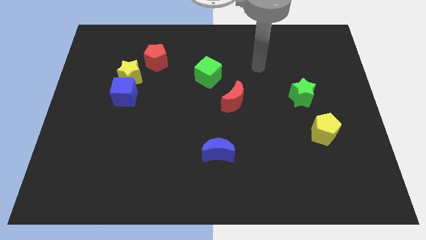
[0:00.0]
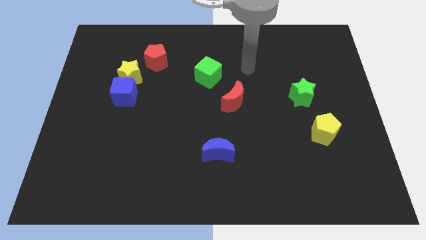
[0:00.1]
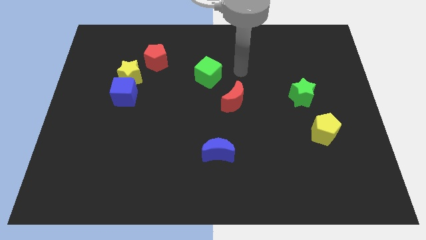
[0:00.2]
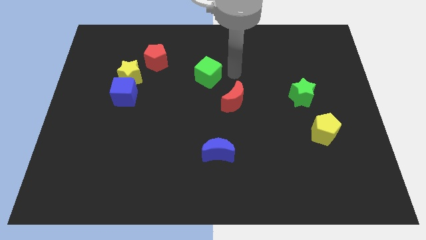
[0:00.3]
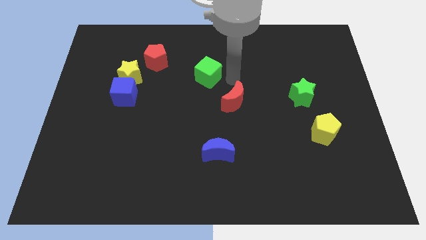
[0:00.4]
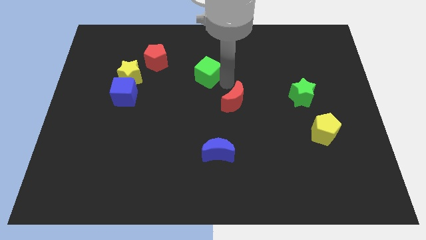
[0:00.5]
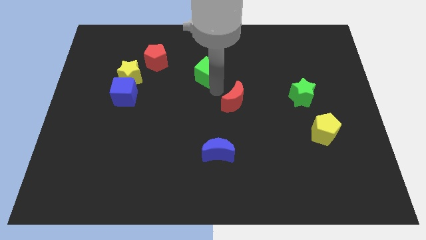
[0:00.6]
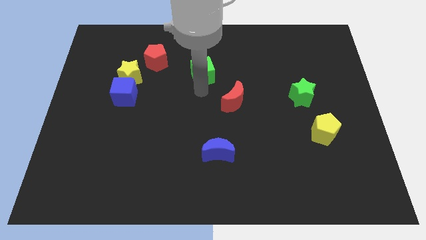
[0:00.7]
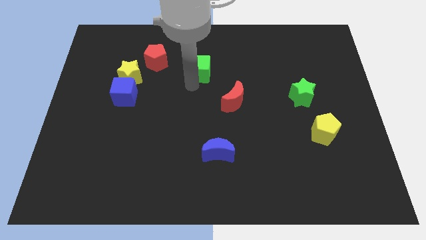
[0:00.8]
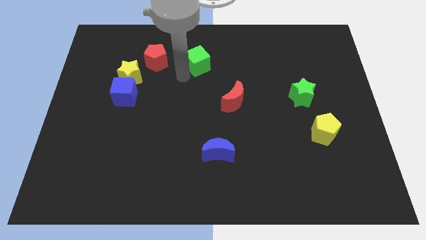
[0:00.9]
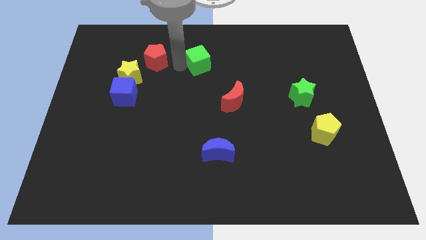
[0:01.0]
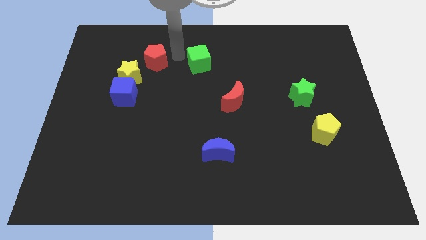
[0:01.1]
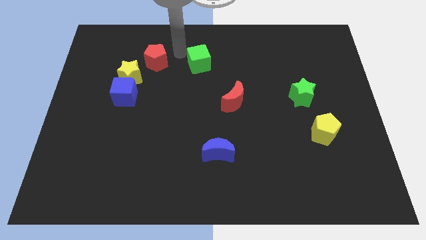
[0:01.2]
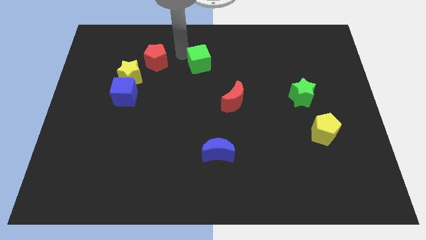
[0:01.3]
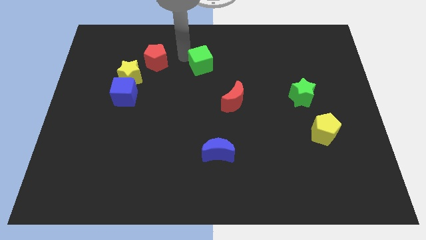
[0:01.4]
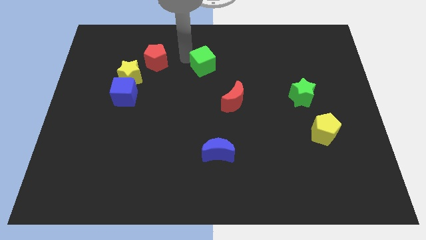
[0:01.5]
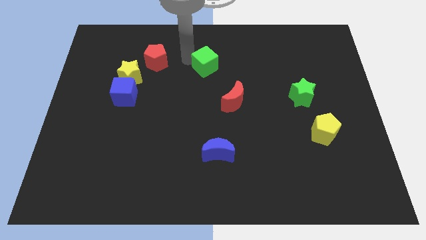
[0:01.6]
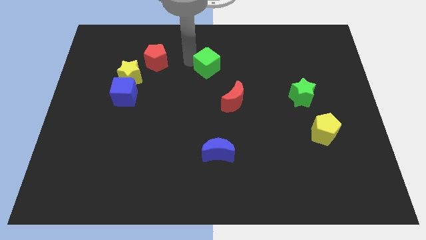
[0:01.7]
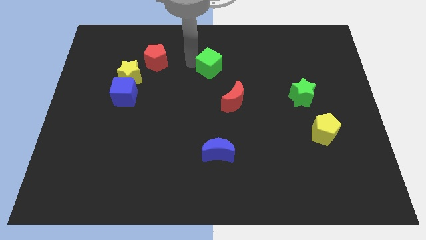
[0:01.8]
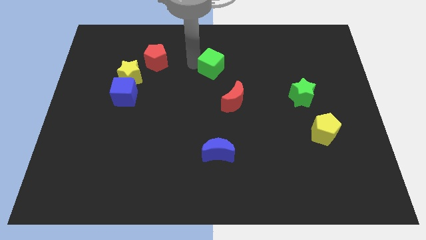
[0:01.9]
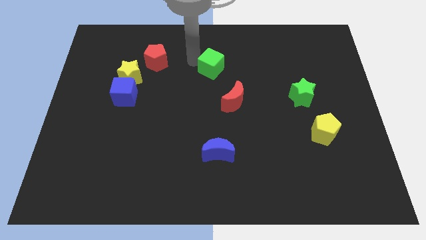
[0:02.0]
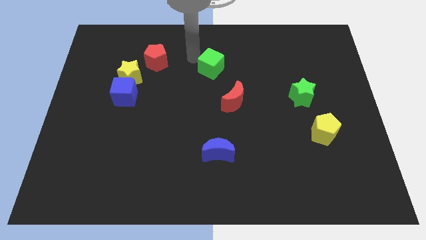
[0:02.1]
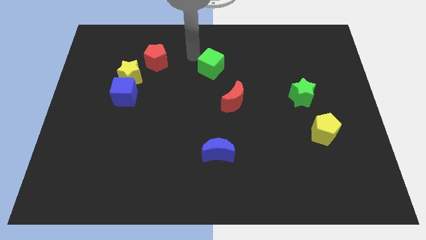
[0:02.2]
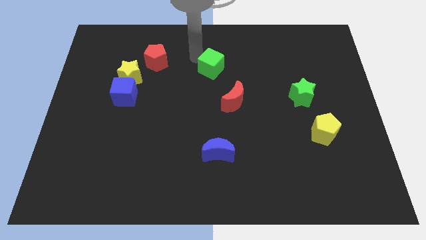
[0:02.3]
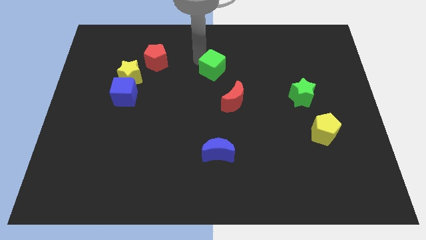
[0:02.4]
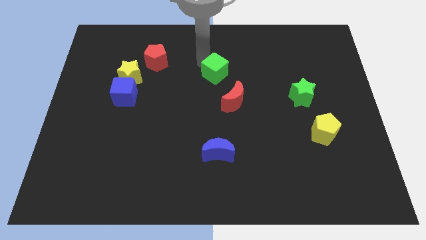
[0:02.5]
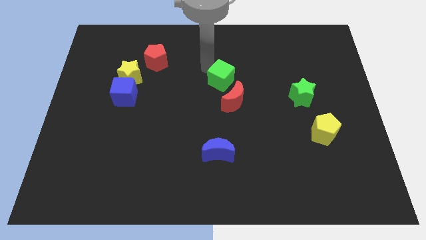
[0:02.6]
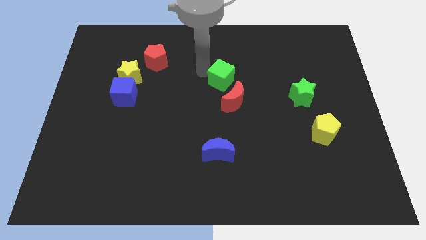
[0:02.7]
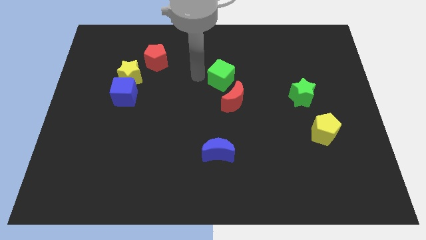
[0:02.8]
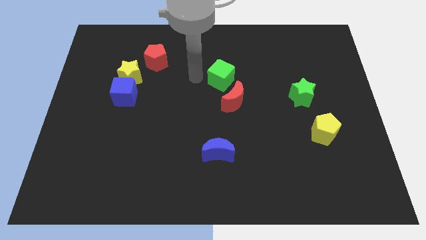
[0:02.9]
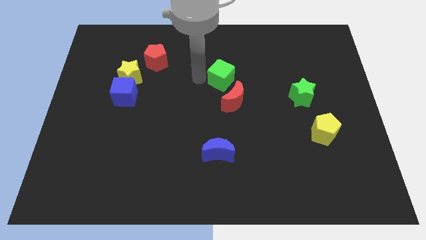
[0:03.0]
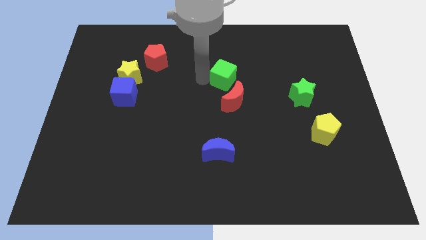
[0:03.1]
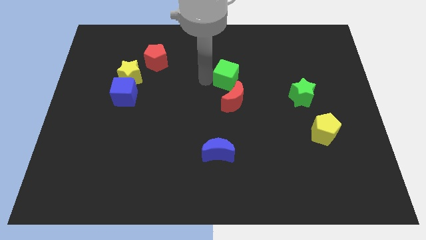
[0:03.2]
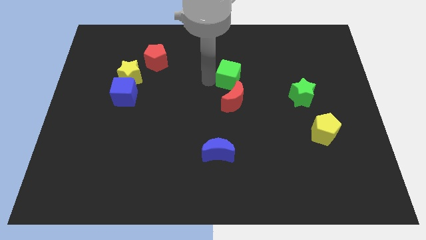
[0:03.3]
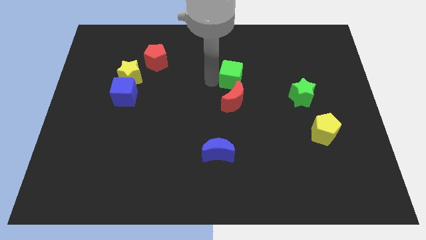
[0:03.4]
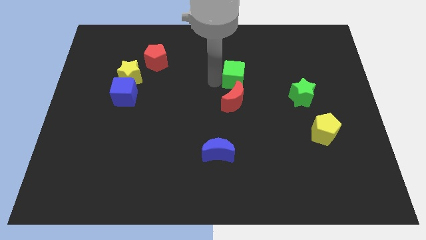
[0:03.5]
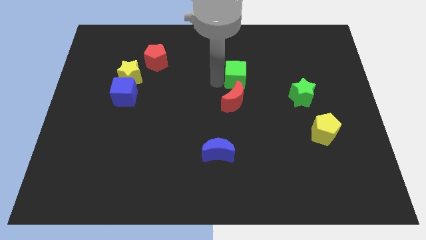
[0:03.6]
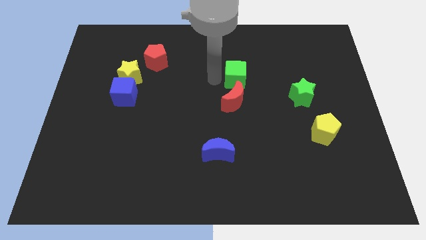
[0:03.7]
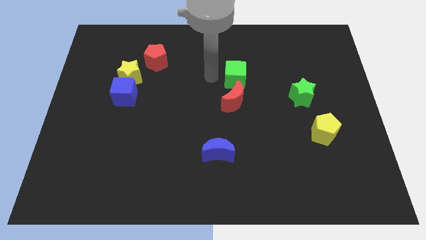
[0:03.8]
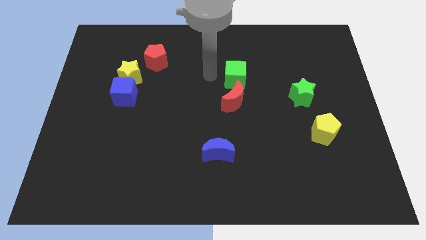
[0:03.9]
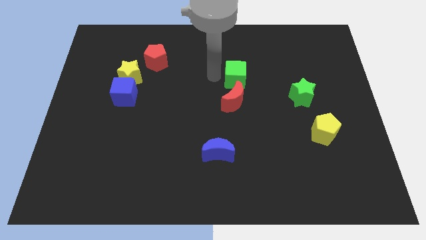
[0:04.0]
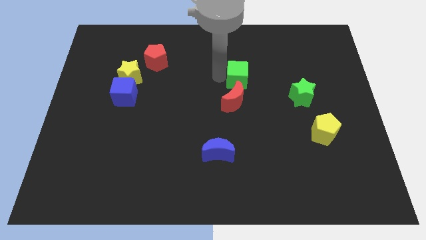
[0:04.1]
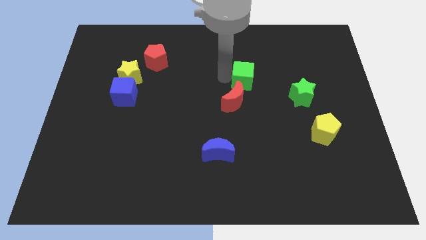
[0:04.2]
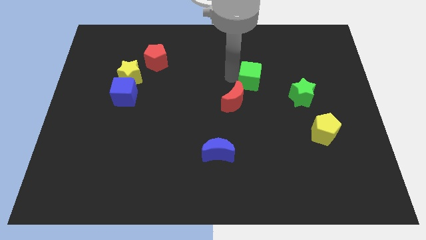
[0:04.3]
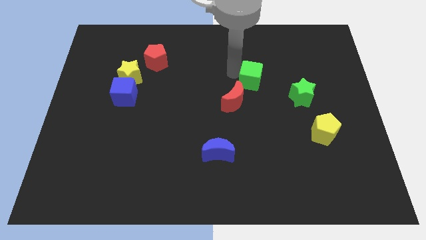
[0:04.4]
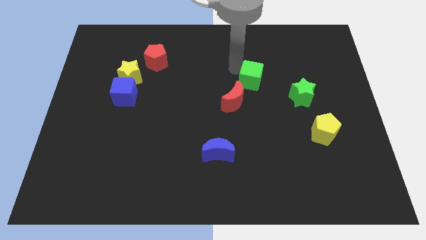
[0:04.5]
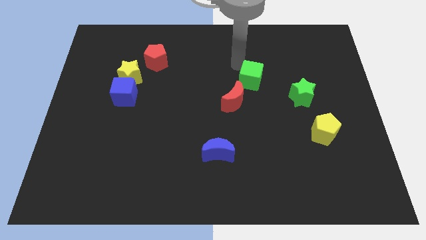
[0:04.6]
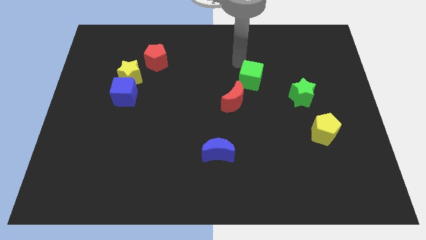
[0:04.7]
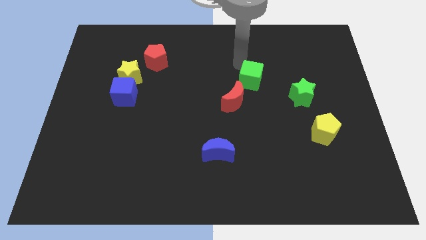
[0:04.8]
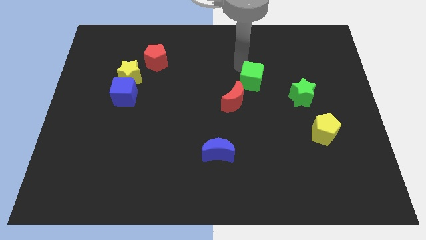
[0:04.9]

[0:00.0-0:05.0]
slightly push the green cube diagonally downwards and right

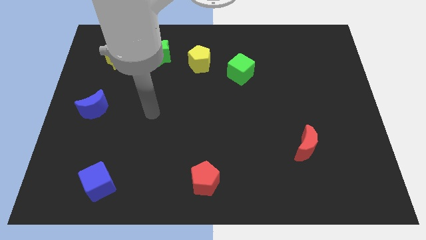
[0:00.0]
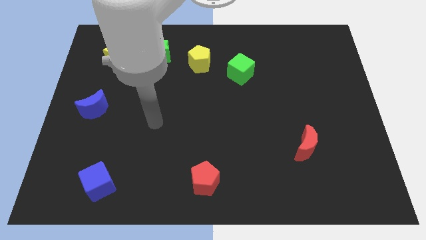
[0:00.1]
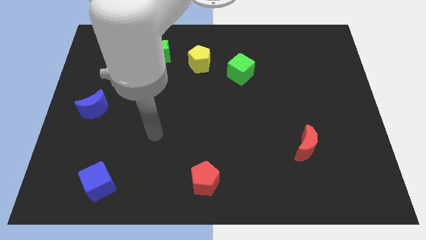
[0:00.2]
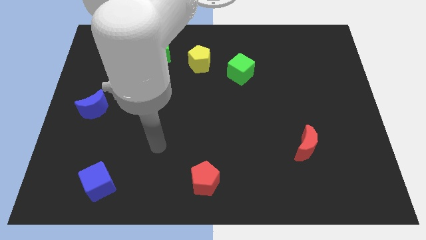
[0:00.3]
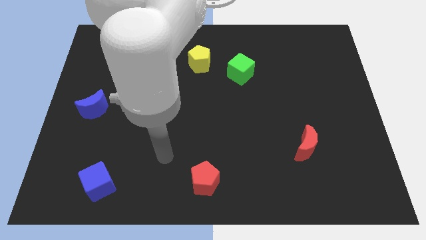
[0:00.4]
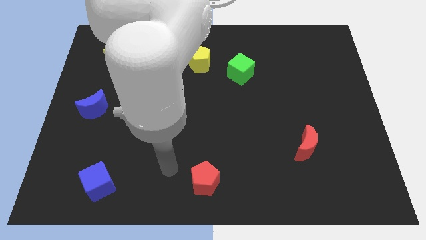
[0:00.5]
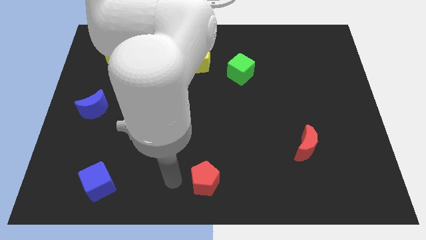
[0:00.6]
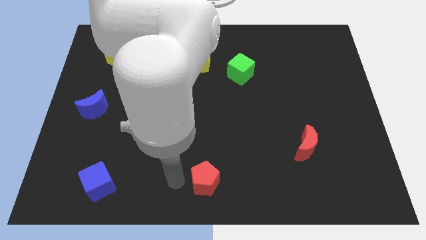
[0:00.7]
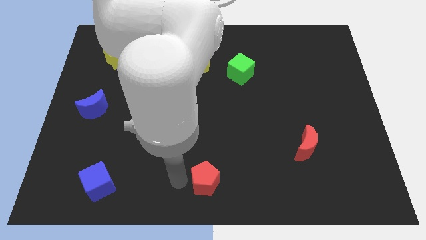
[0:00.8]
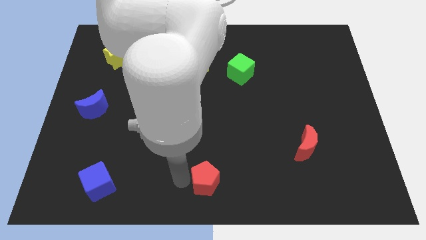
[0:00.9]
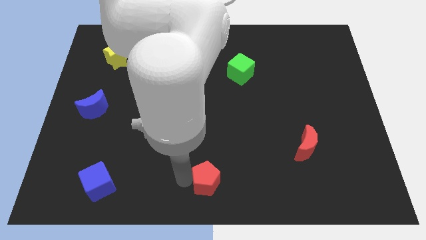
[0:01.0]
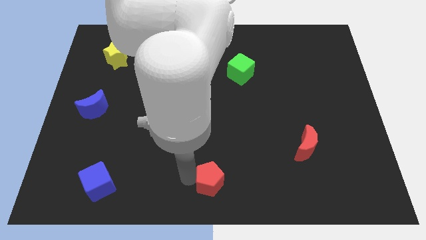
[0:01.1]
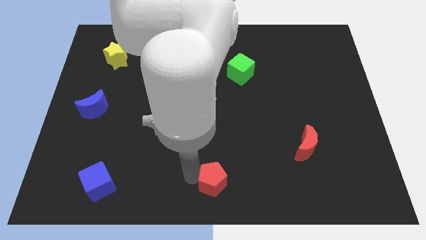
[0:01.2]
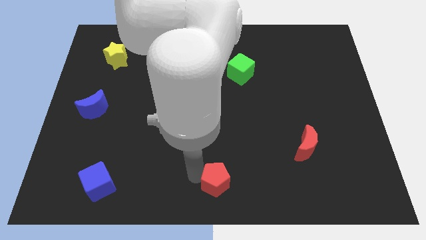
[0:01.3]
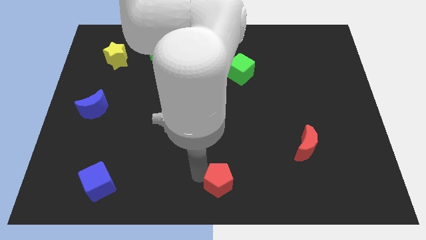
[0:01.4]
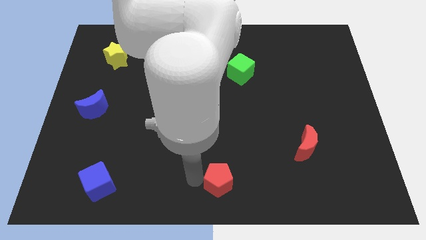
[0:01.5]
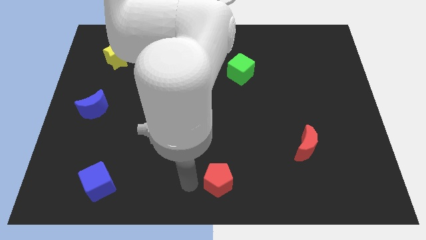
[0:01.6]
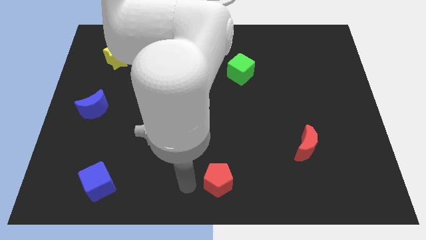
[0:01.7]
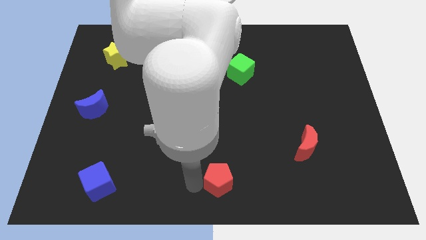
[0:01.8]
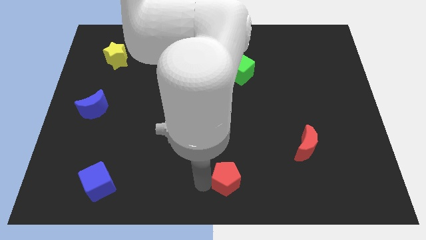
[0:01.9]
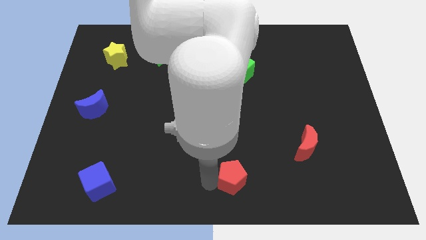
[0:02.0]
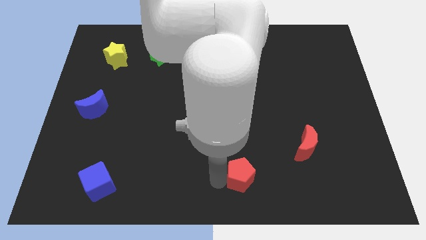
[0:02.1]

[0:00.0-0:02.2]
slide the red pentagon slightly right

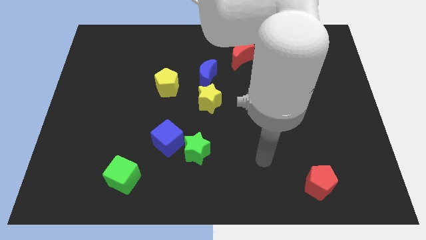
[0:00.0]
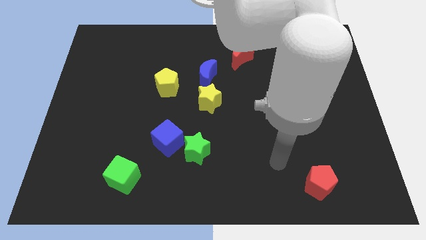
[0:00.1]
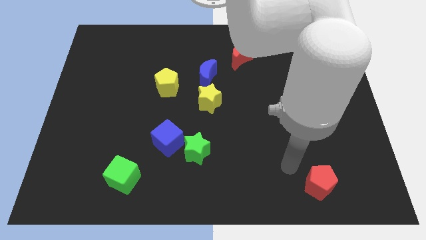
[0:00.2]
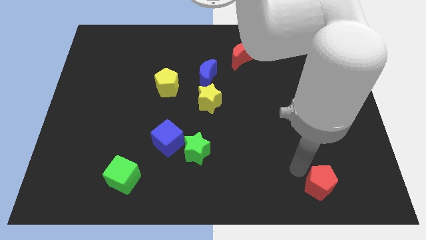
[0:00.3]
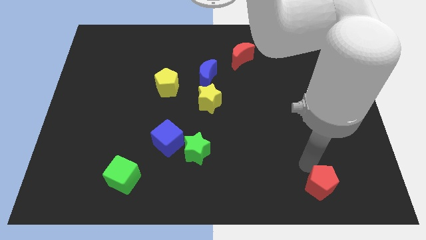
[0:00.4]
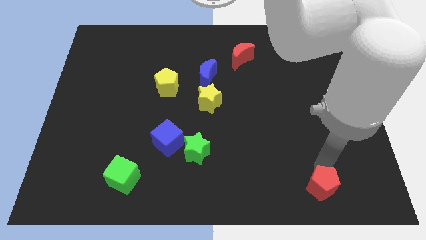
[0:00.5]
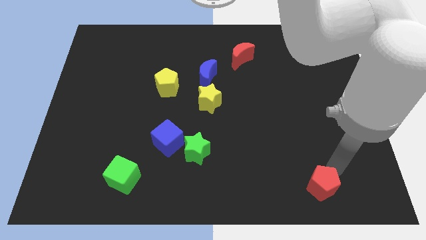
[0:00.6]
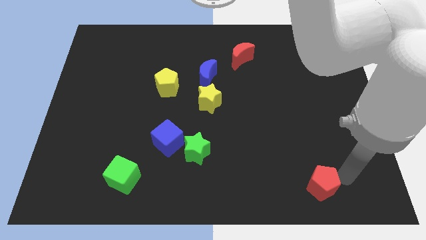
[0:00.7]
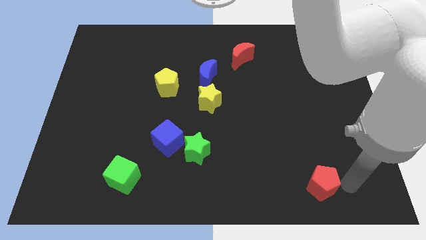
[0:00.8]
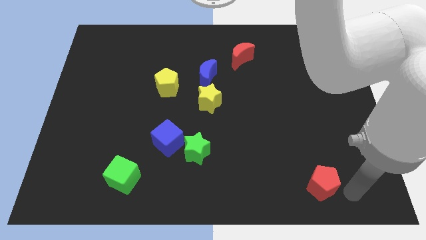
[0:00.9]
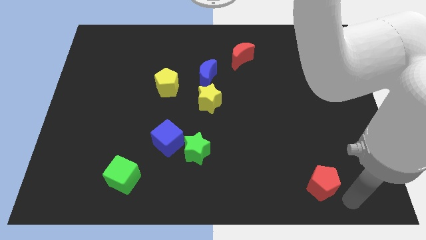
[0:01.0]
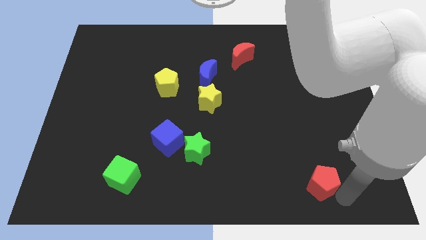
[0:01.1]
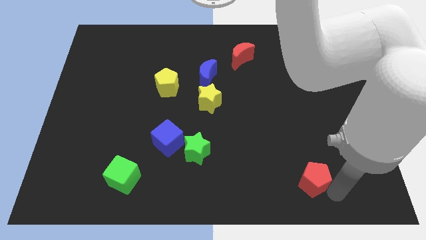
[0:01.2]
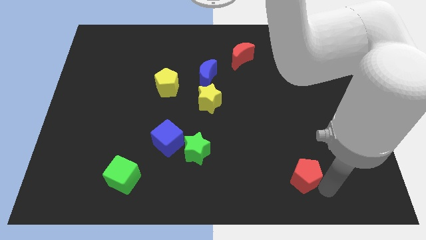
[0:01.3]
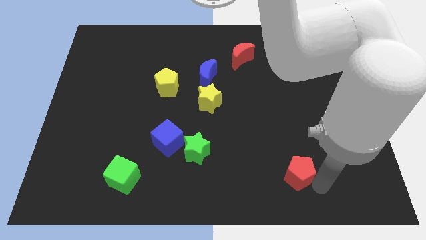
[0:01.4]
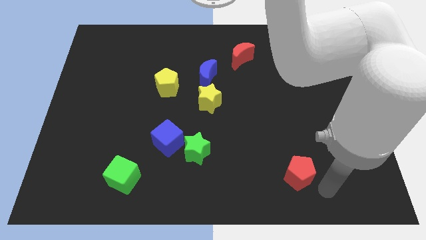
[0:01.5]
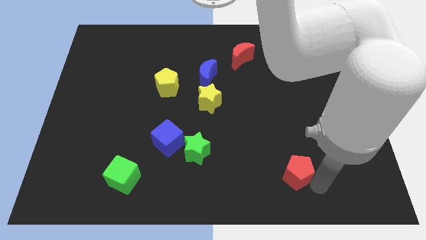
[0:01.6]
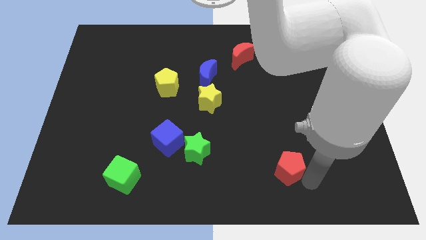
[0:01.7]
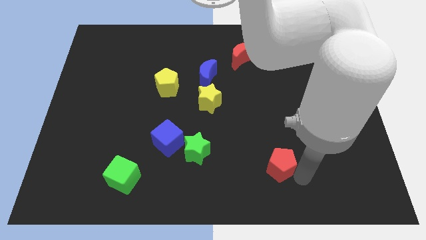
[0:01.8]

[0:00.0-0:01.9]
push the red pentagon upwards and to the left a little bit
